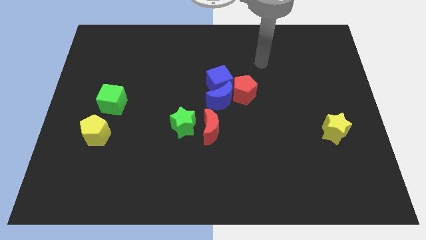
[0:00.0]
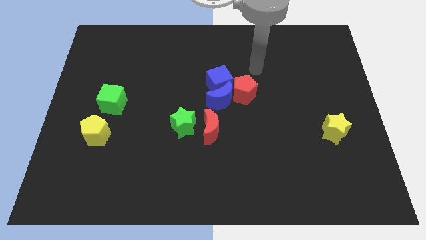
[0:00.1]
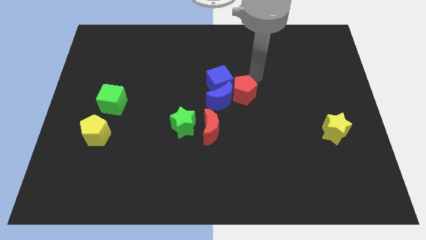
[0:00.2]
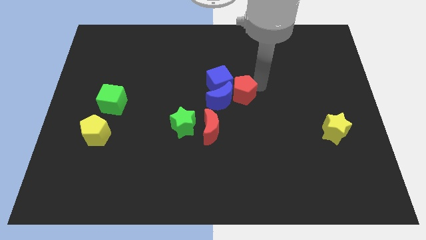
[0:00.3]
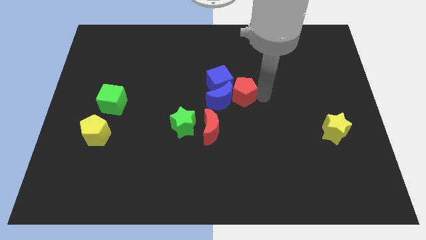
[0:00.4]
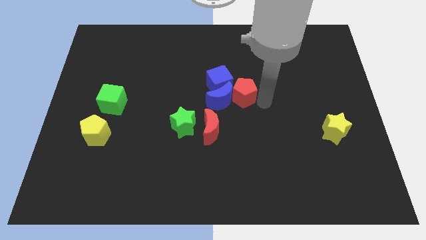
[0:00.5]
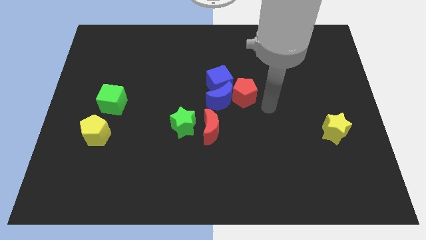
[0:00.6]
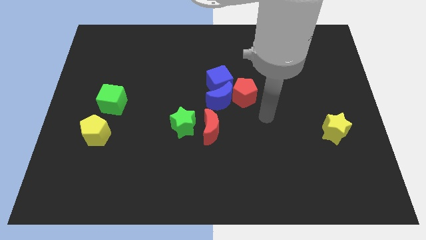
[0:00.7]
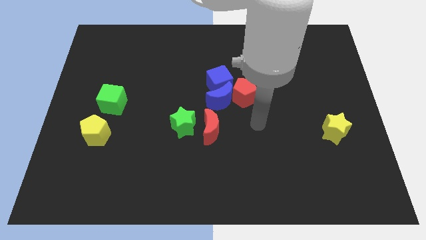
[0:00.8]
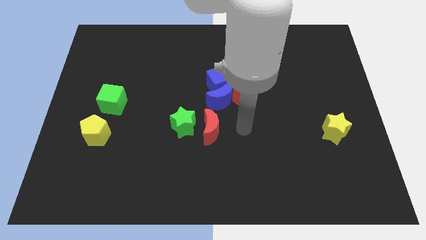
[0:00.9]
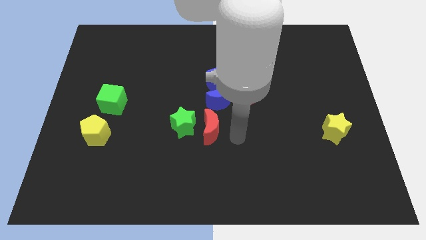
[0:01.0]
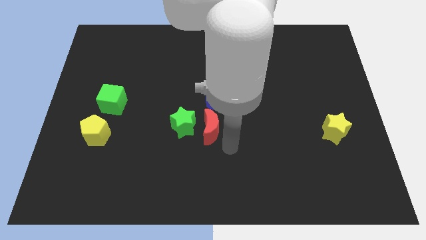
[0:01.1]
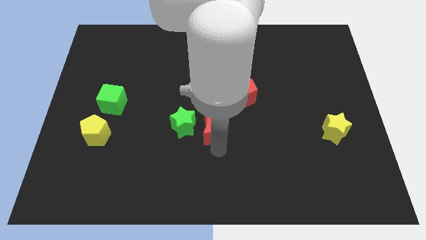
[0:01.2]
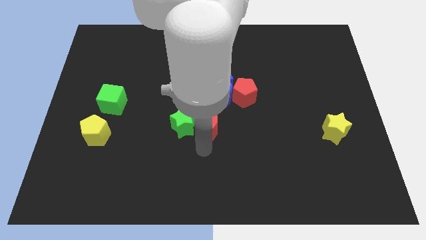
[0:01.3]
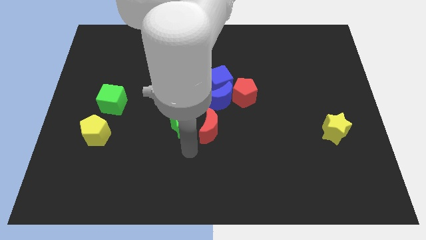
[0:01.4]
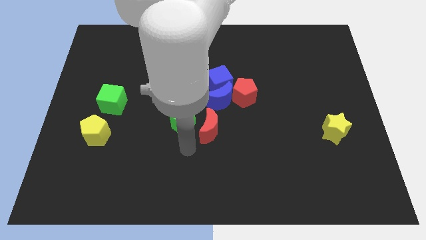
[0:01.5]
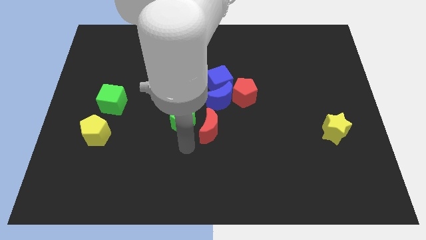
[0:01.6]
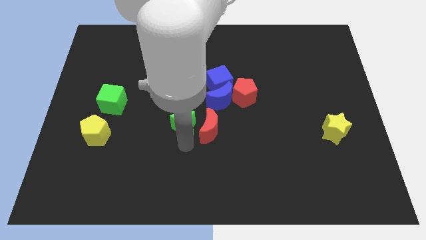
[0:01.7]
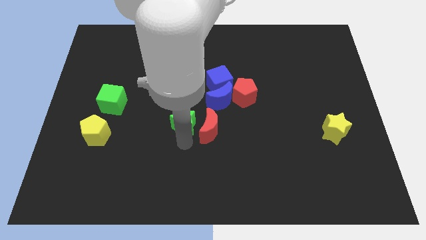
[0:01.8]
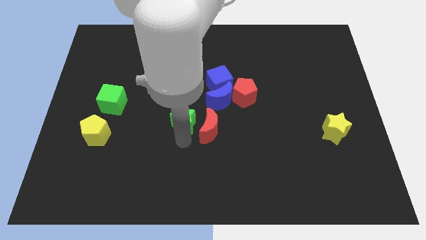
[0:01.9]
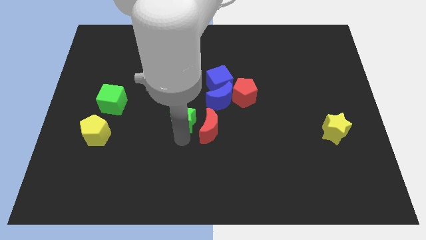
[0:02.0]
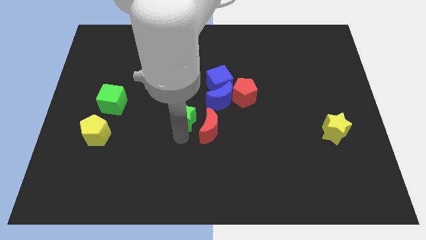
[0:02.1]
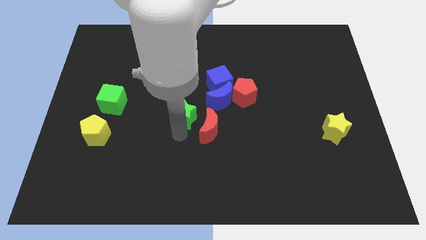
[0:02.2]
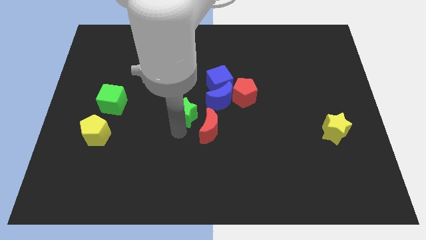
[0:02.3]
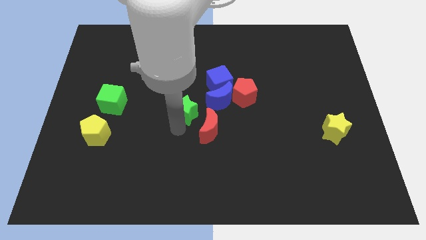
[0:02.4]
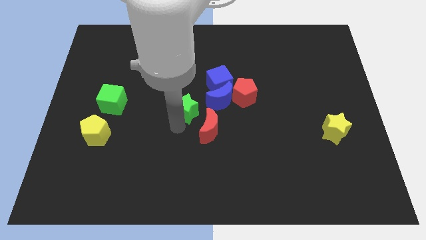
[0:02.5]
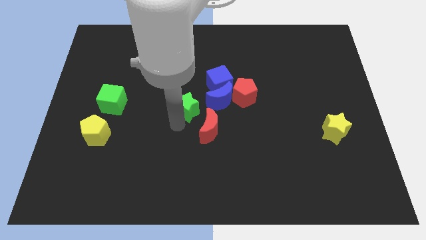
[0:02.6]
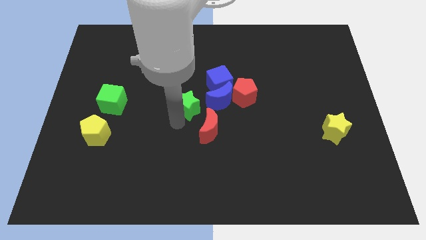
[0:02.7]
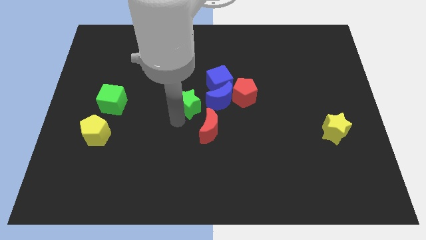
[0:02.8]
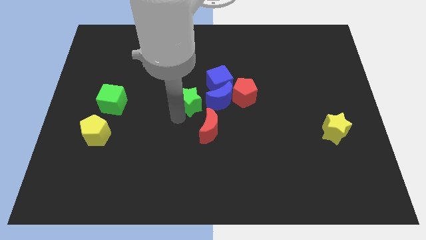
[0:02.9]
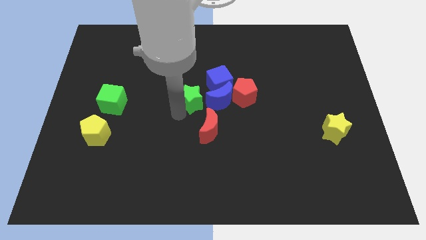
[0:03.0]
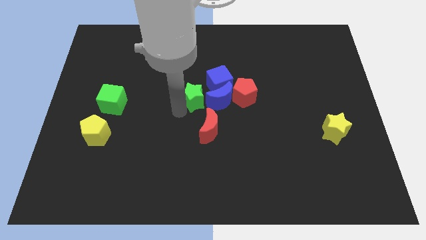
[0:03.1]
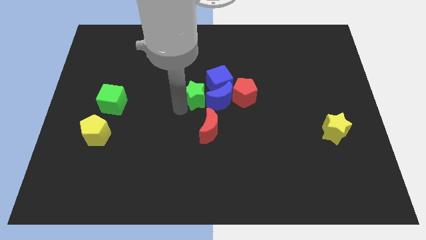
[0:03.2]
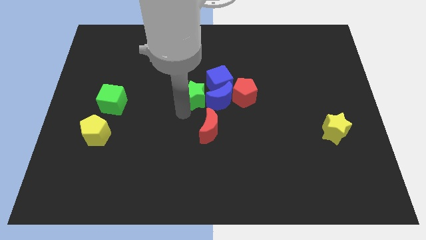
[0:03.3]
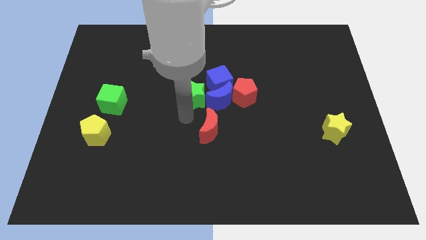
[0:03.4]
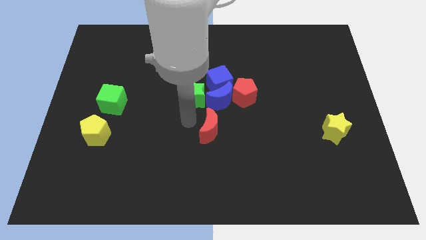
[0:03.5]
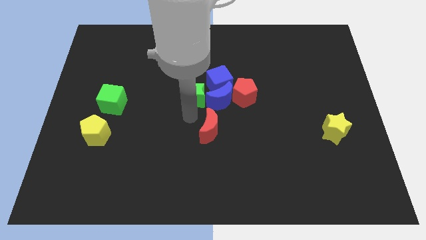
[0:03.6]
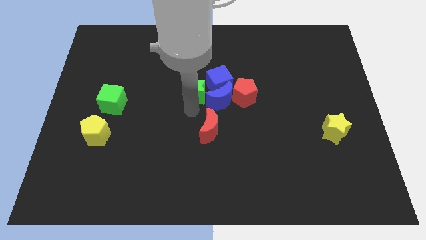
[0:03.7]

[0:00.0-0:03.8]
push the green star slightly upwards and then to the right

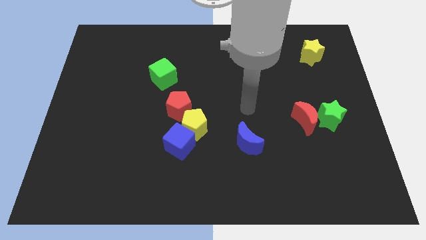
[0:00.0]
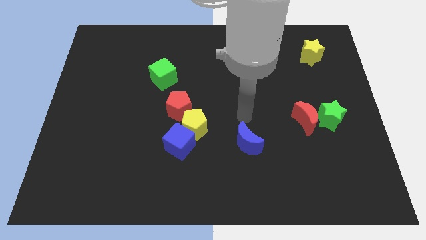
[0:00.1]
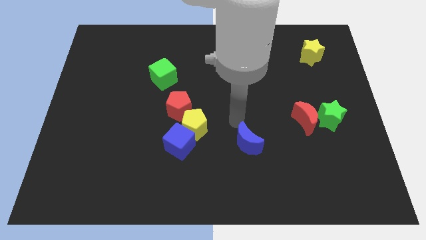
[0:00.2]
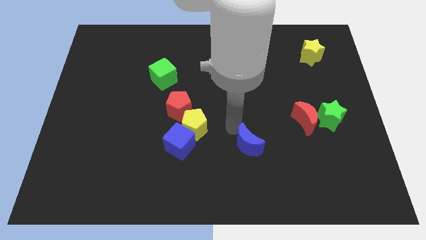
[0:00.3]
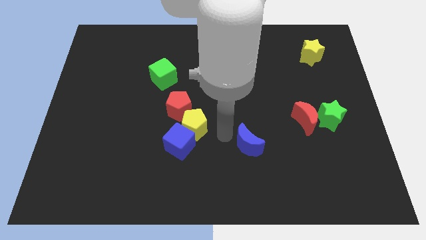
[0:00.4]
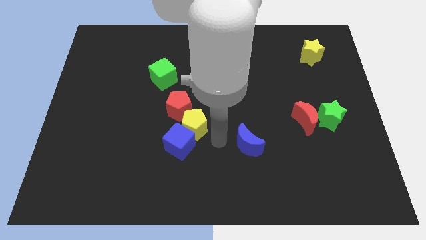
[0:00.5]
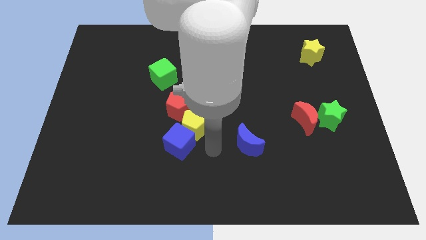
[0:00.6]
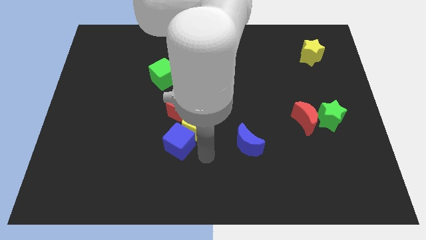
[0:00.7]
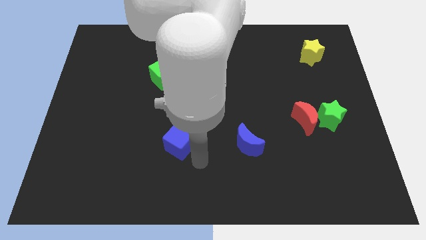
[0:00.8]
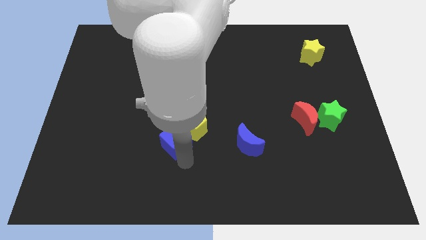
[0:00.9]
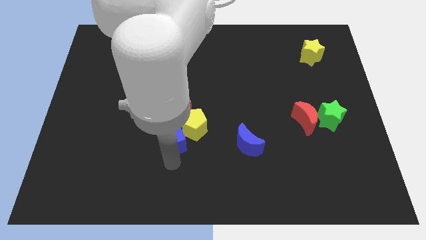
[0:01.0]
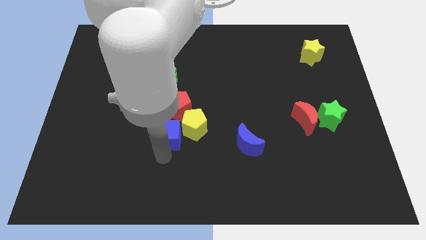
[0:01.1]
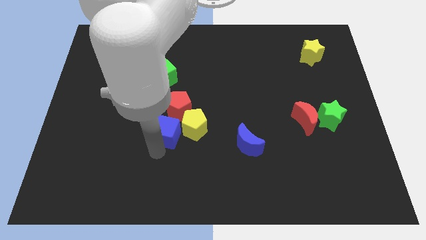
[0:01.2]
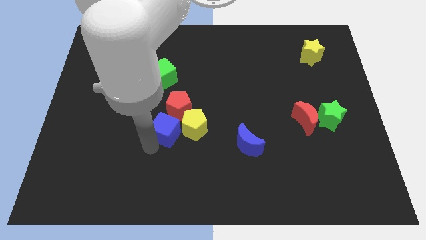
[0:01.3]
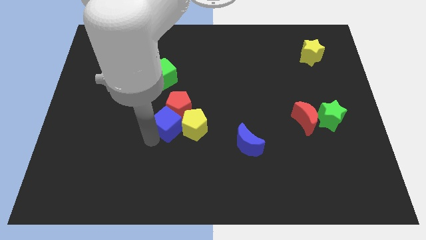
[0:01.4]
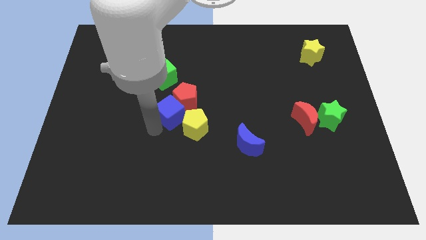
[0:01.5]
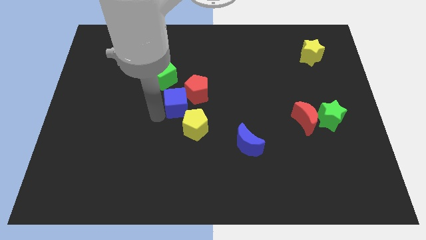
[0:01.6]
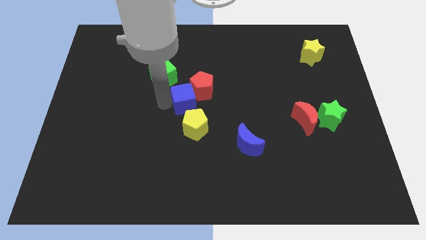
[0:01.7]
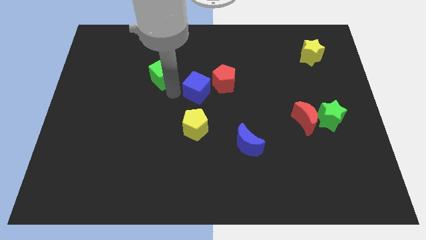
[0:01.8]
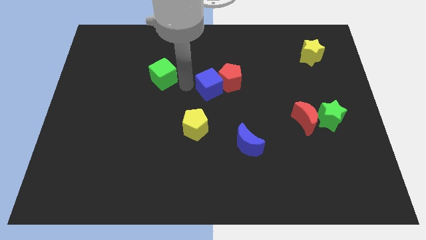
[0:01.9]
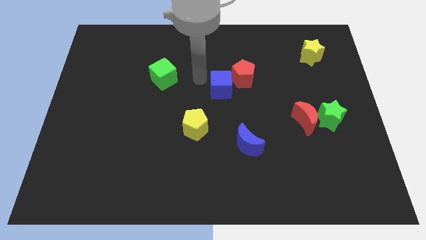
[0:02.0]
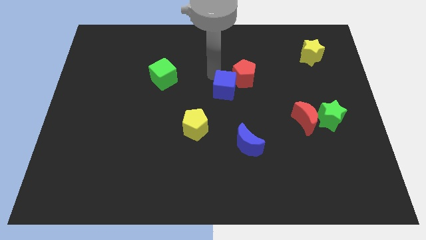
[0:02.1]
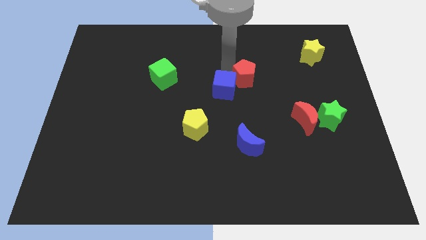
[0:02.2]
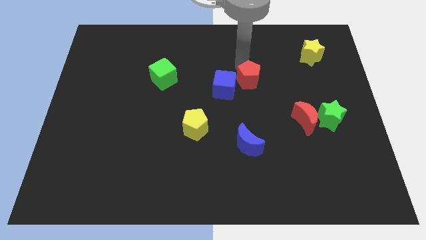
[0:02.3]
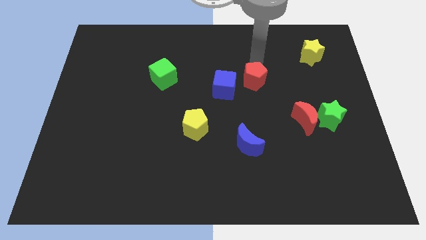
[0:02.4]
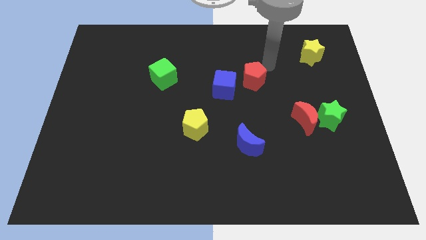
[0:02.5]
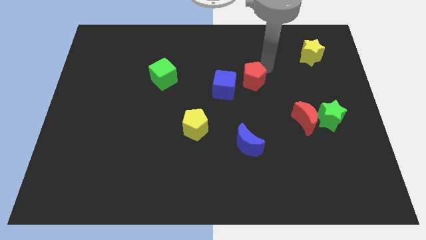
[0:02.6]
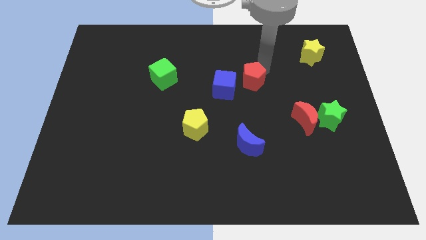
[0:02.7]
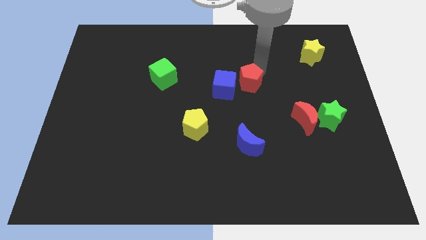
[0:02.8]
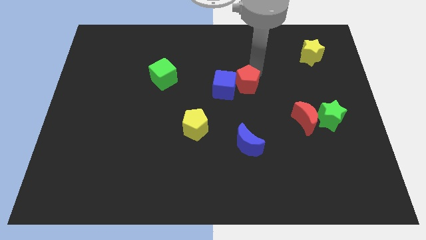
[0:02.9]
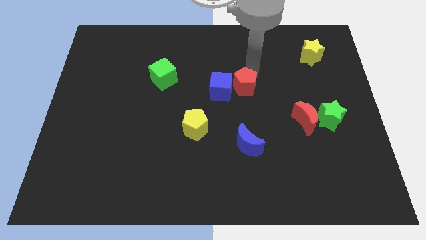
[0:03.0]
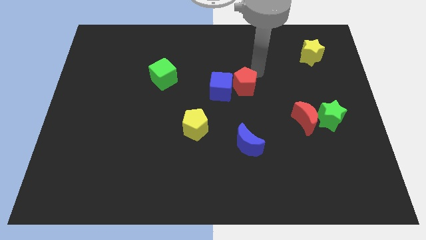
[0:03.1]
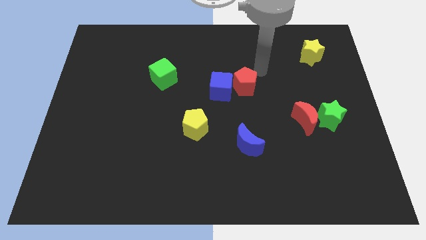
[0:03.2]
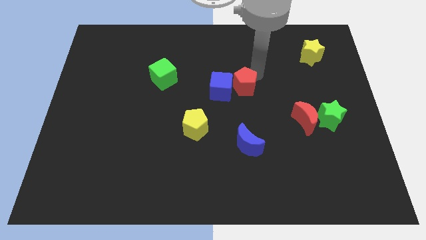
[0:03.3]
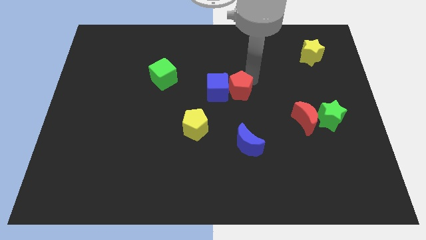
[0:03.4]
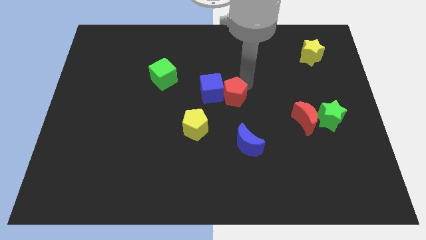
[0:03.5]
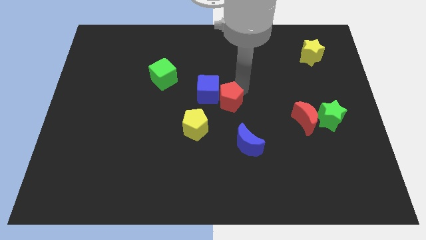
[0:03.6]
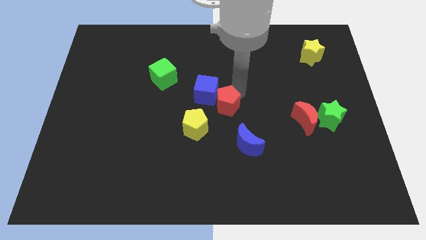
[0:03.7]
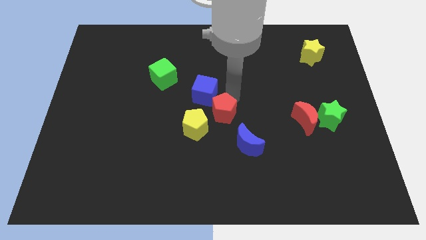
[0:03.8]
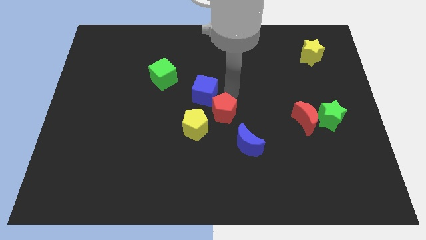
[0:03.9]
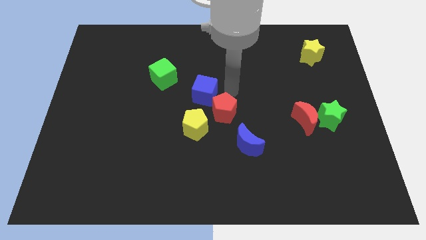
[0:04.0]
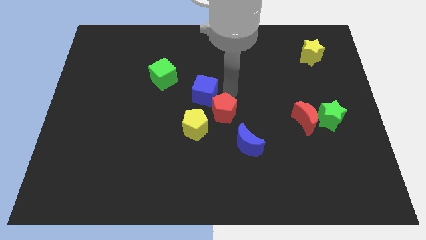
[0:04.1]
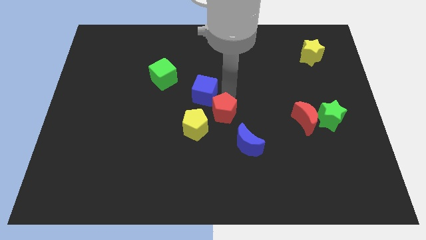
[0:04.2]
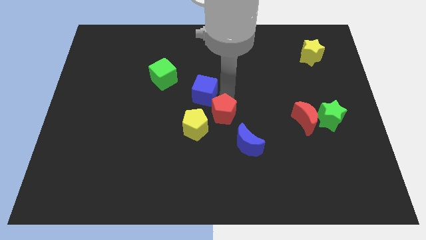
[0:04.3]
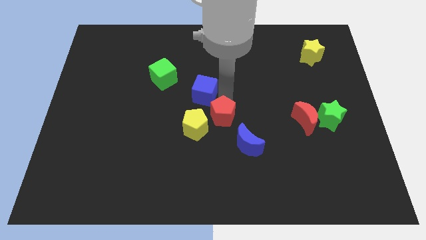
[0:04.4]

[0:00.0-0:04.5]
push the red pentagon a little downwards and right
